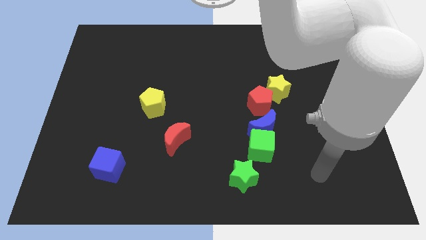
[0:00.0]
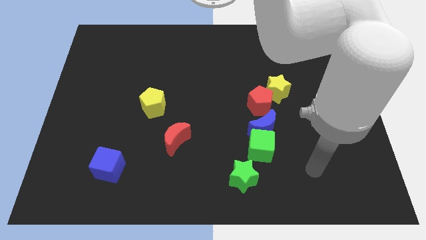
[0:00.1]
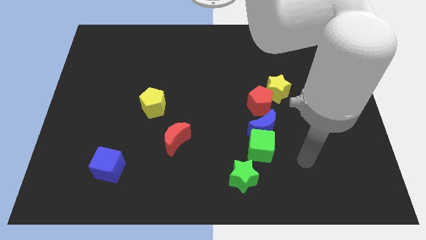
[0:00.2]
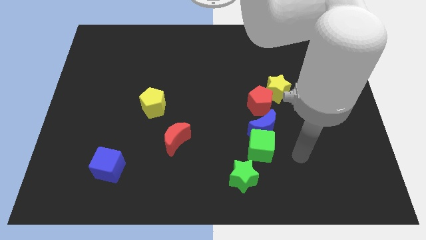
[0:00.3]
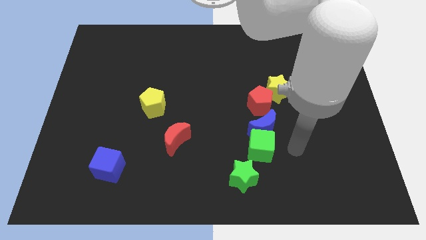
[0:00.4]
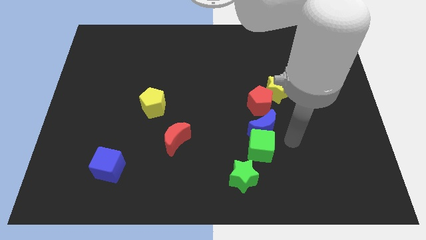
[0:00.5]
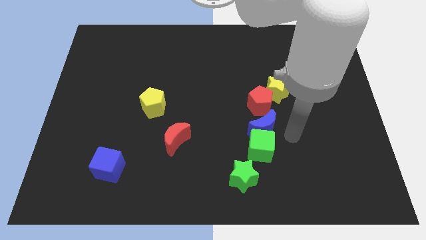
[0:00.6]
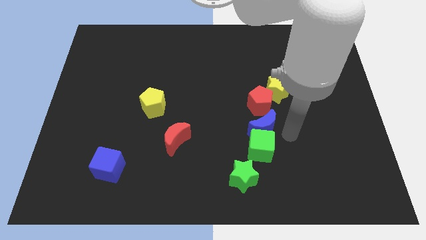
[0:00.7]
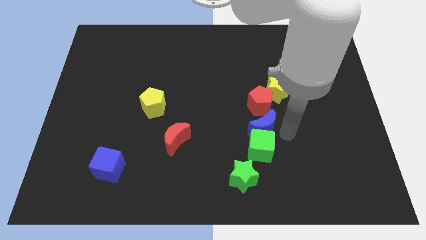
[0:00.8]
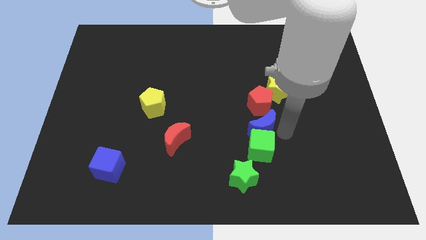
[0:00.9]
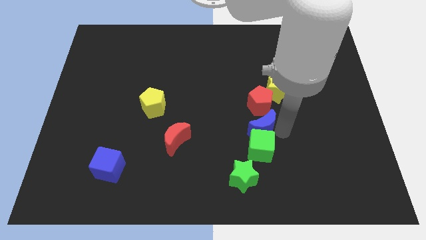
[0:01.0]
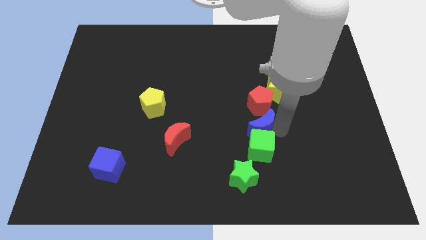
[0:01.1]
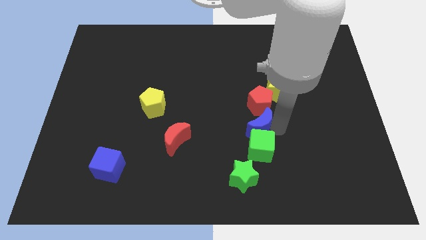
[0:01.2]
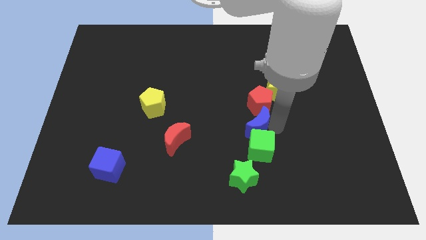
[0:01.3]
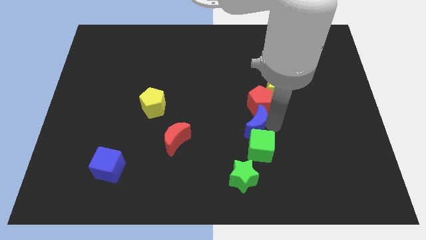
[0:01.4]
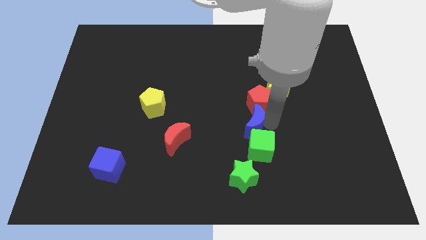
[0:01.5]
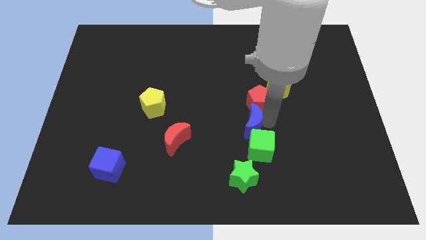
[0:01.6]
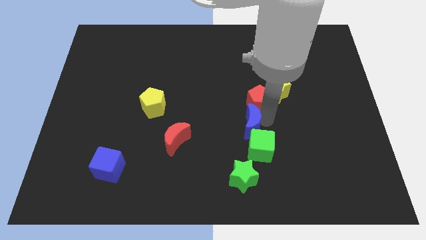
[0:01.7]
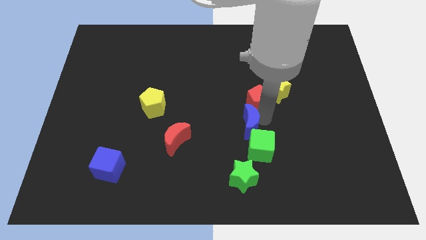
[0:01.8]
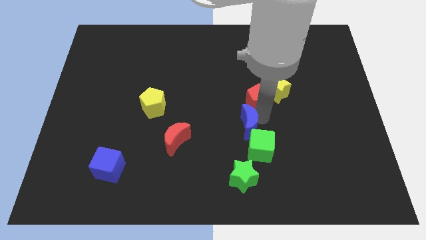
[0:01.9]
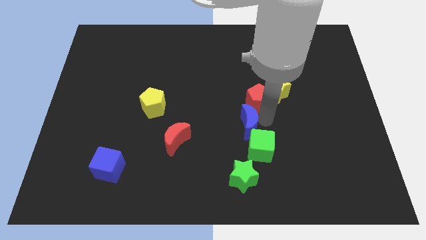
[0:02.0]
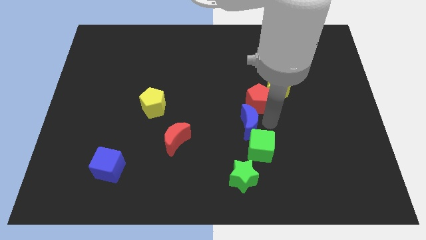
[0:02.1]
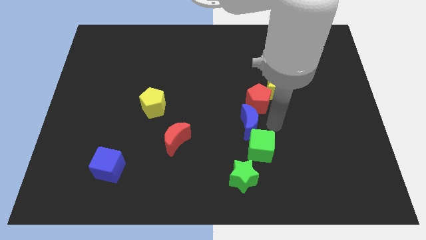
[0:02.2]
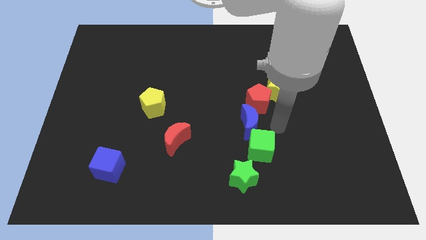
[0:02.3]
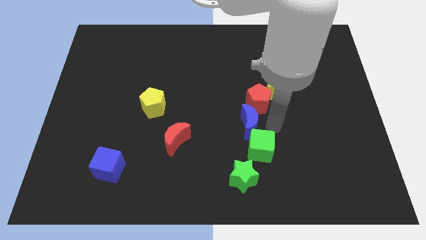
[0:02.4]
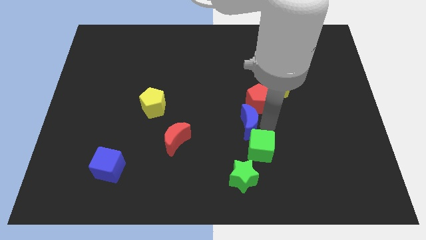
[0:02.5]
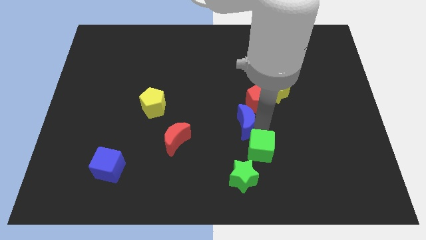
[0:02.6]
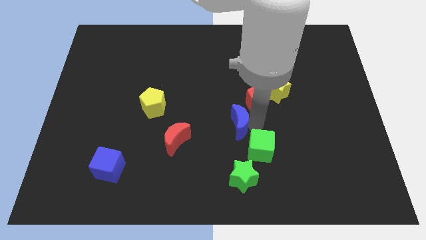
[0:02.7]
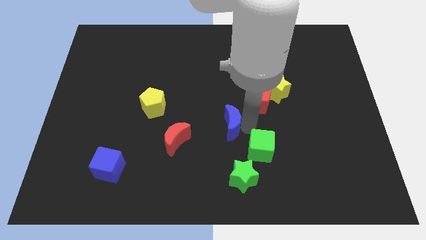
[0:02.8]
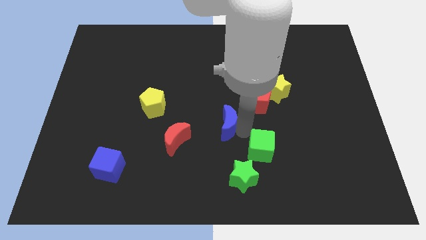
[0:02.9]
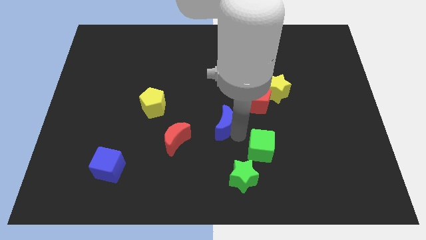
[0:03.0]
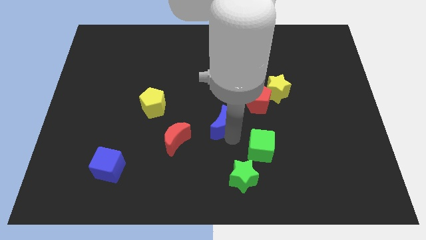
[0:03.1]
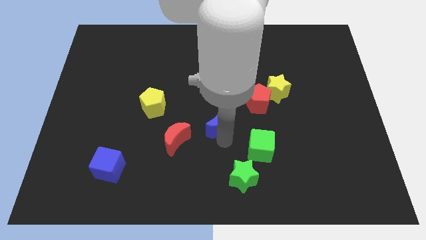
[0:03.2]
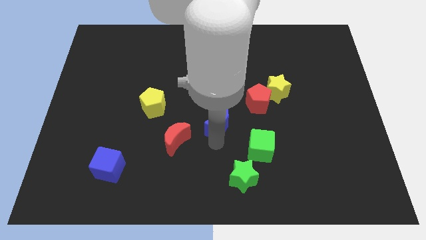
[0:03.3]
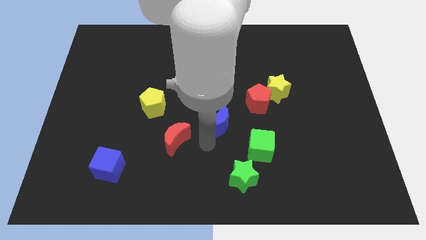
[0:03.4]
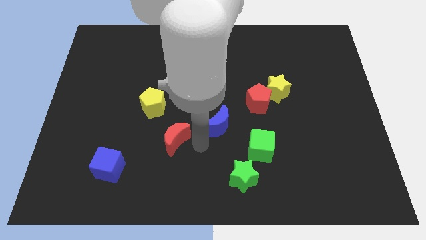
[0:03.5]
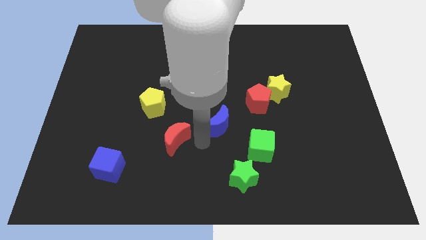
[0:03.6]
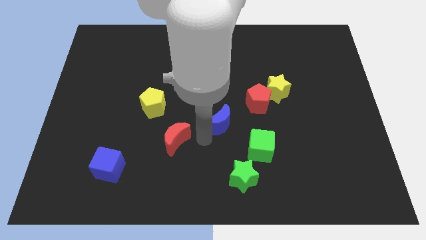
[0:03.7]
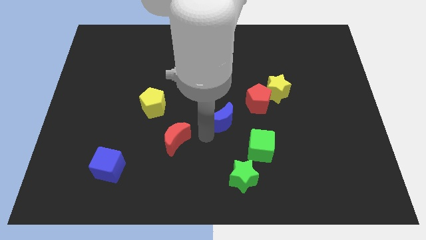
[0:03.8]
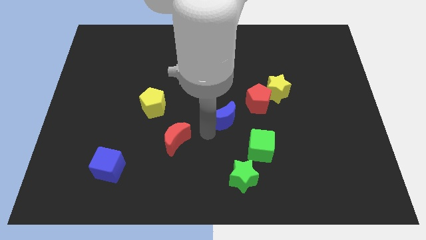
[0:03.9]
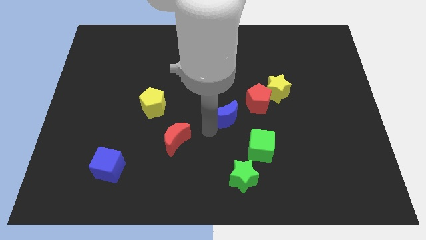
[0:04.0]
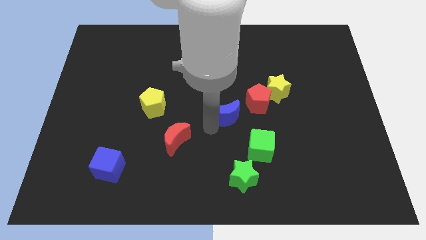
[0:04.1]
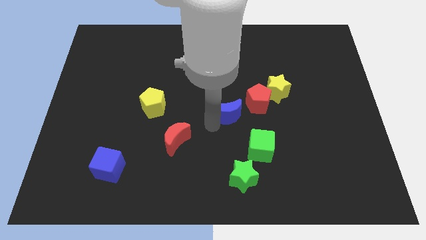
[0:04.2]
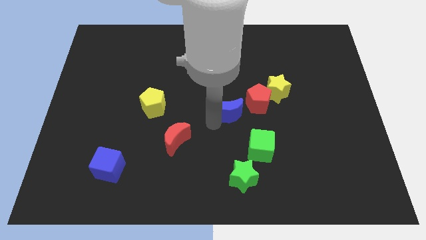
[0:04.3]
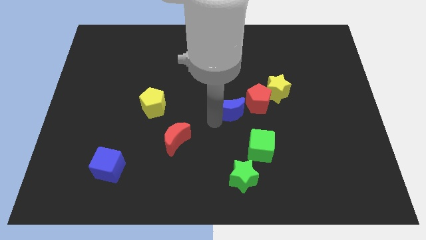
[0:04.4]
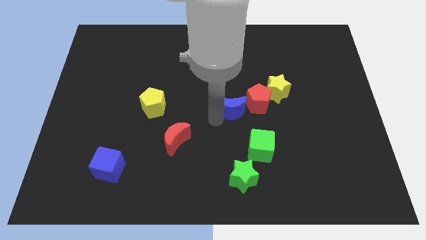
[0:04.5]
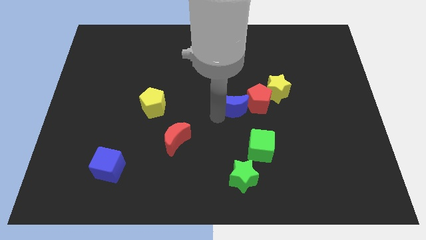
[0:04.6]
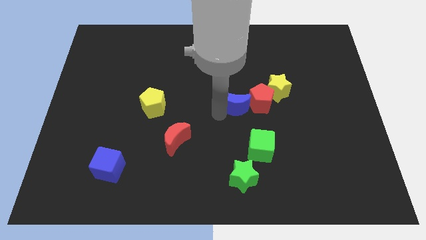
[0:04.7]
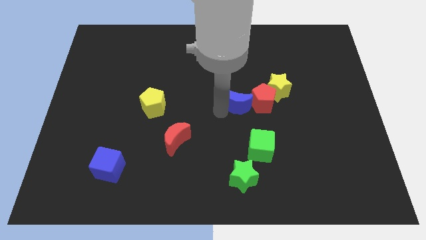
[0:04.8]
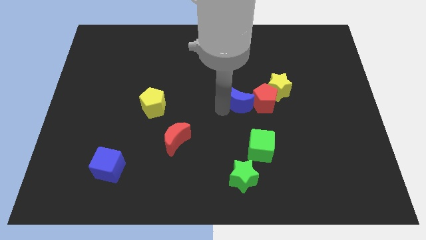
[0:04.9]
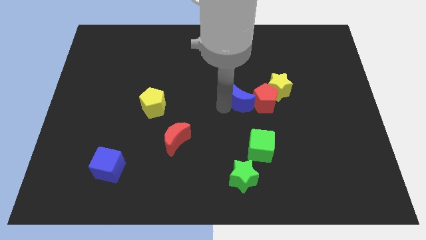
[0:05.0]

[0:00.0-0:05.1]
push the blue moon slightly upwards

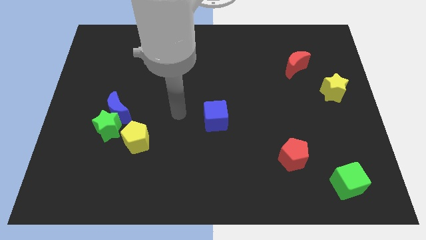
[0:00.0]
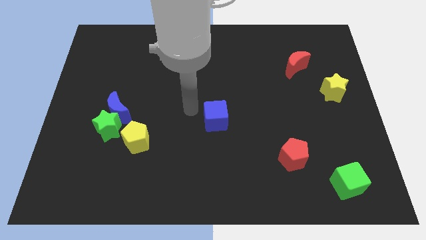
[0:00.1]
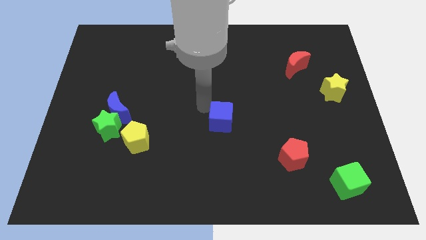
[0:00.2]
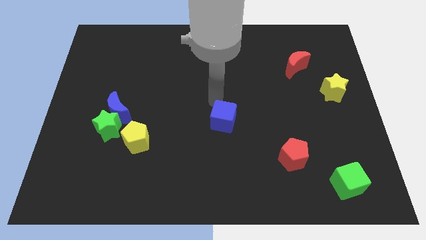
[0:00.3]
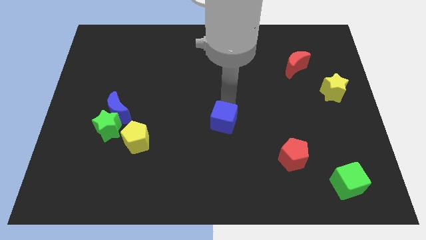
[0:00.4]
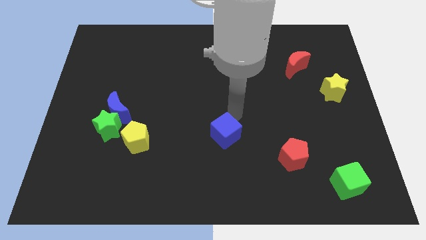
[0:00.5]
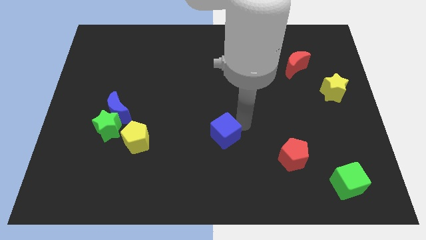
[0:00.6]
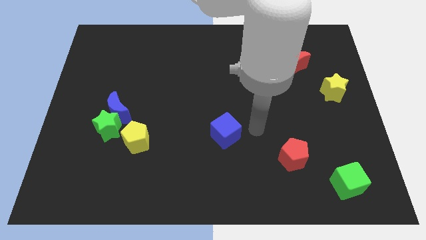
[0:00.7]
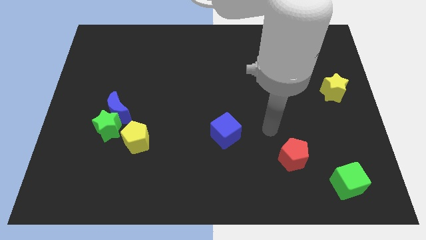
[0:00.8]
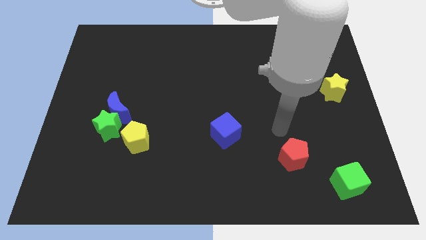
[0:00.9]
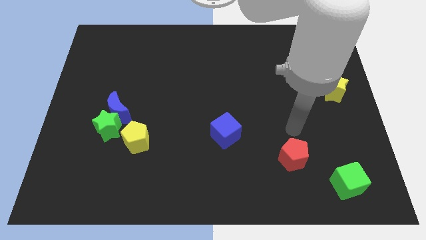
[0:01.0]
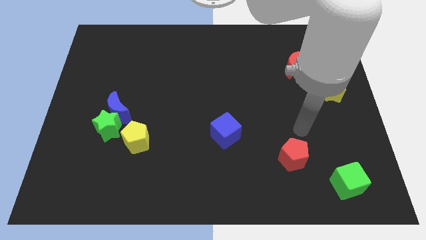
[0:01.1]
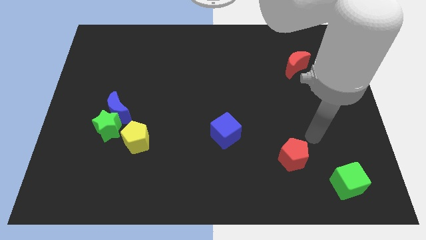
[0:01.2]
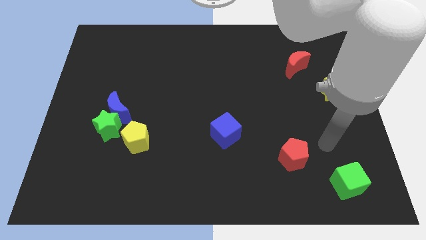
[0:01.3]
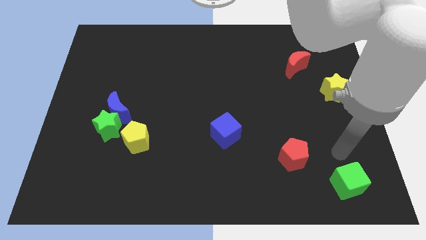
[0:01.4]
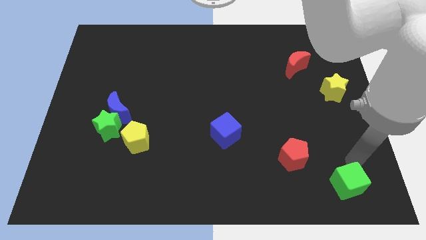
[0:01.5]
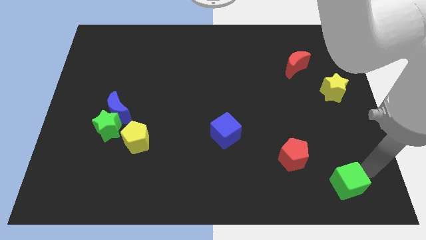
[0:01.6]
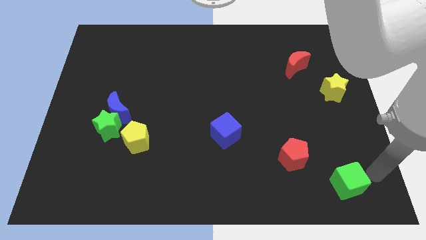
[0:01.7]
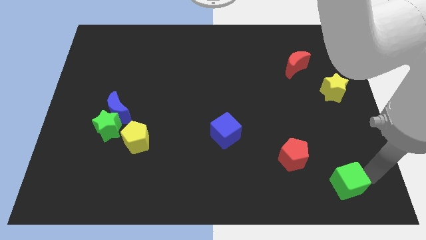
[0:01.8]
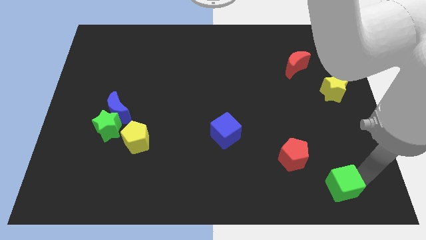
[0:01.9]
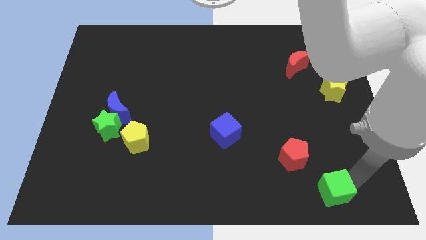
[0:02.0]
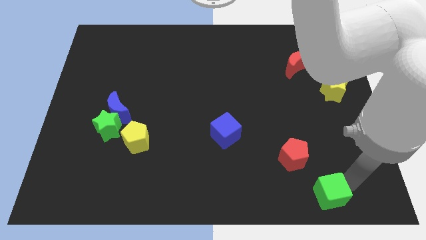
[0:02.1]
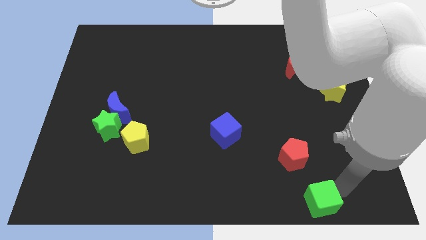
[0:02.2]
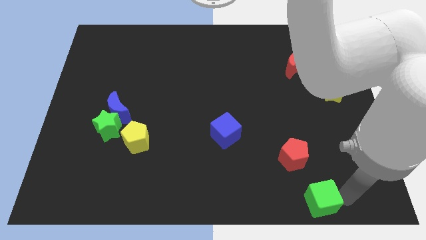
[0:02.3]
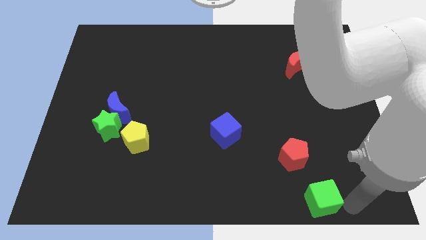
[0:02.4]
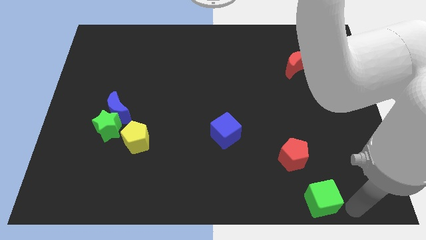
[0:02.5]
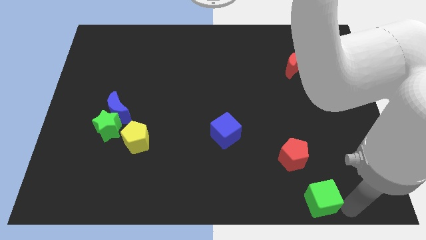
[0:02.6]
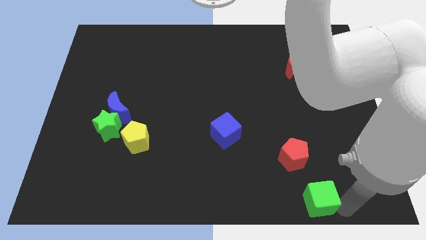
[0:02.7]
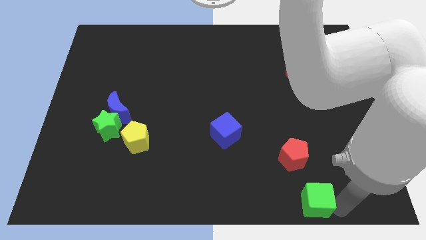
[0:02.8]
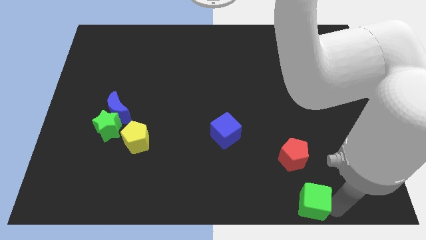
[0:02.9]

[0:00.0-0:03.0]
move the green cube to the left slightly
